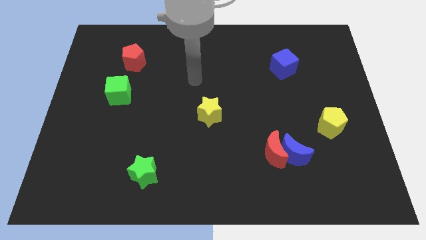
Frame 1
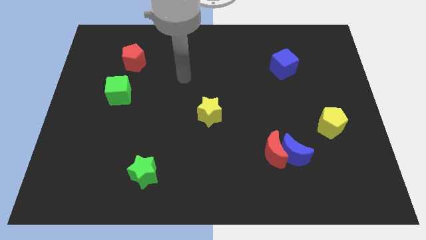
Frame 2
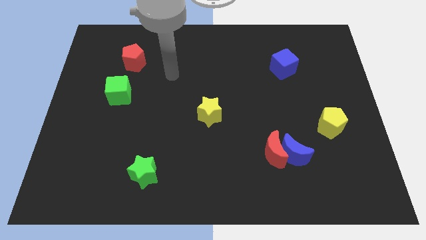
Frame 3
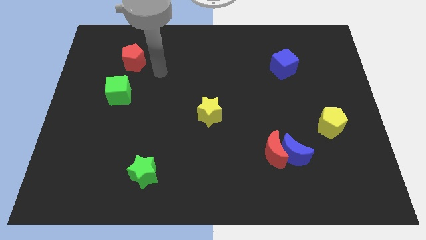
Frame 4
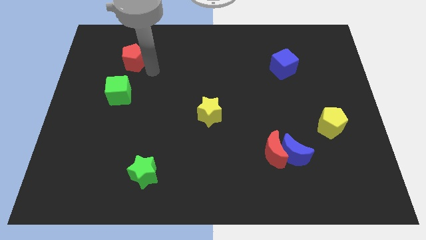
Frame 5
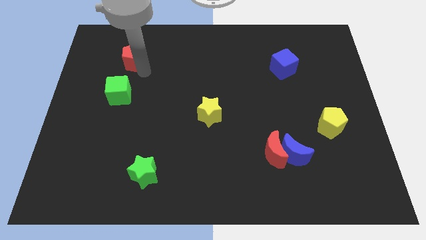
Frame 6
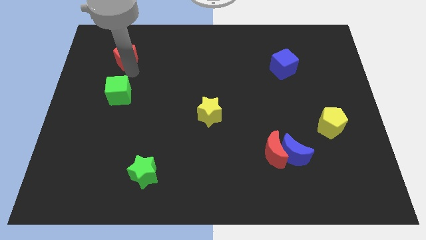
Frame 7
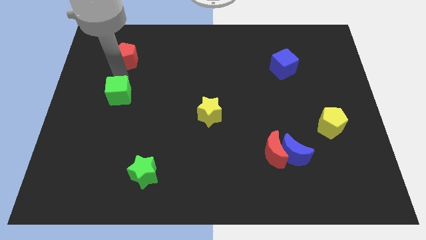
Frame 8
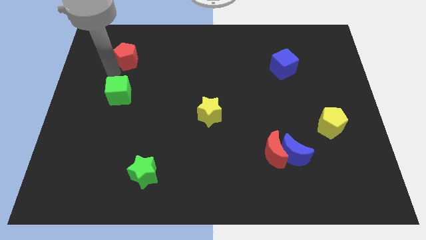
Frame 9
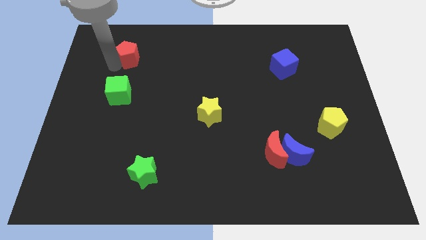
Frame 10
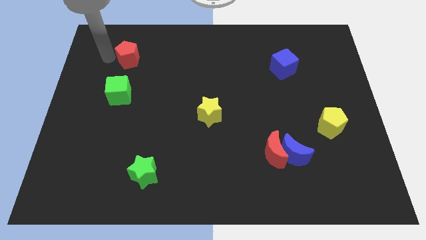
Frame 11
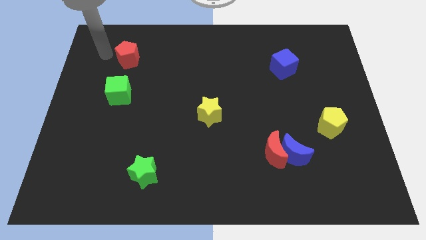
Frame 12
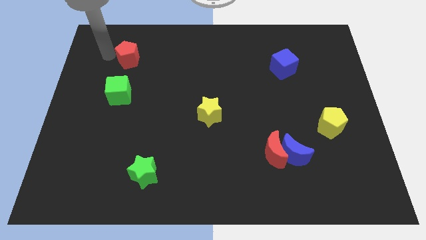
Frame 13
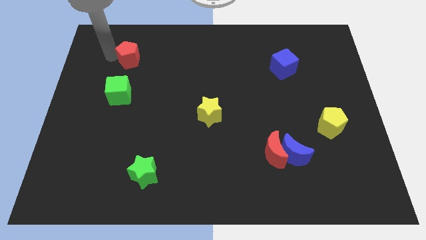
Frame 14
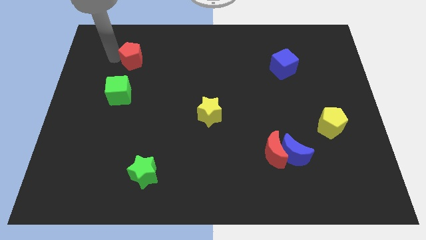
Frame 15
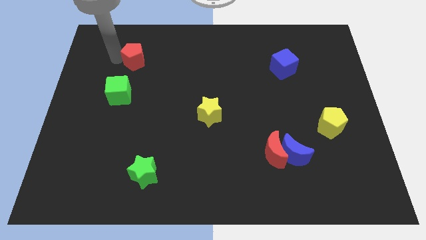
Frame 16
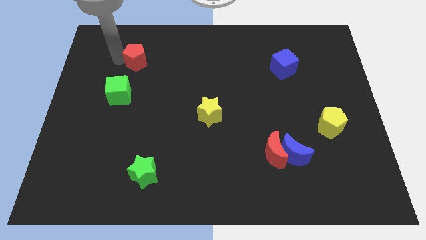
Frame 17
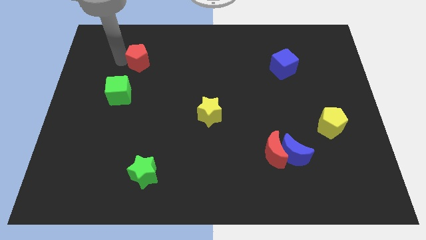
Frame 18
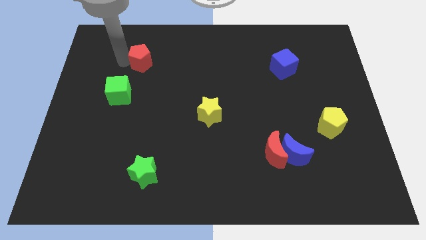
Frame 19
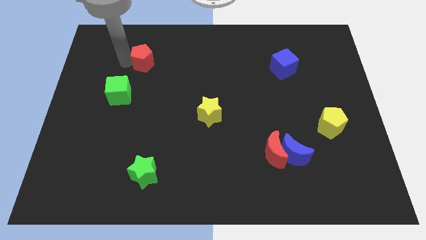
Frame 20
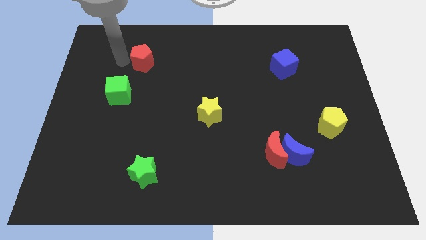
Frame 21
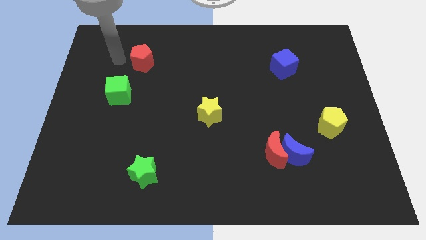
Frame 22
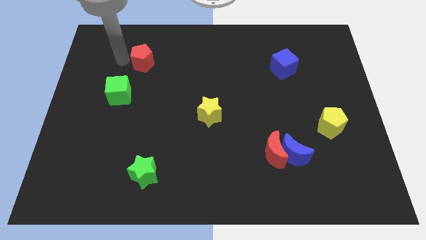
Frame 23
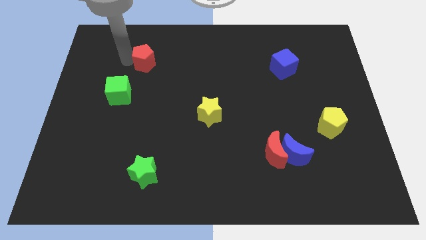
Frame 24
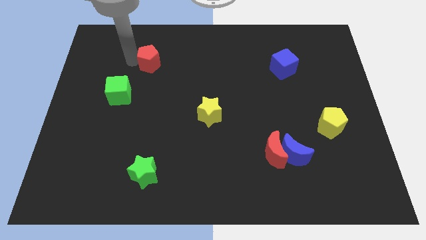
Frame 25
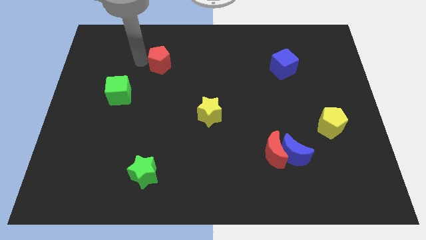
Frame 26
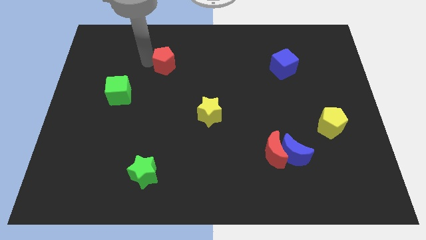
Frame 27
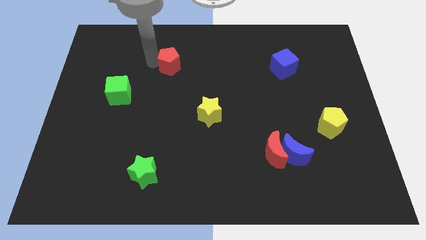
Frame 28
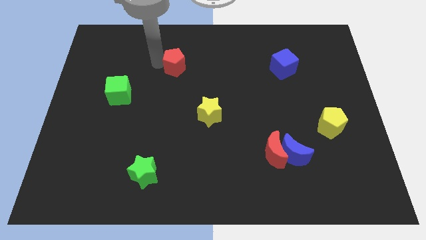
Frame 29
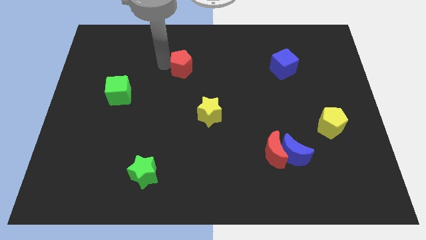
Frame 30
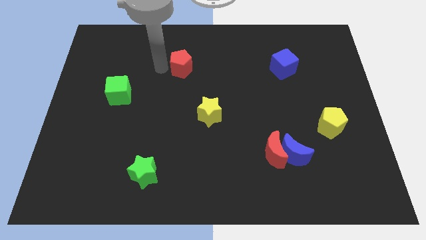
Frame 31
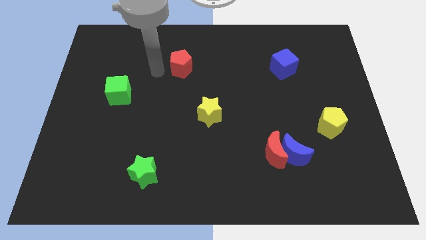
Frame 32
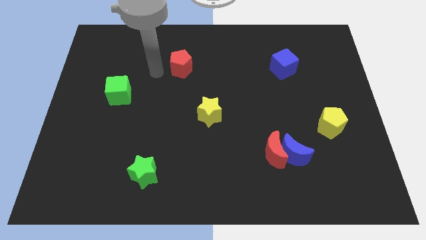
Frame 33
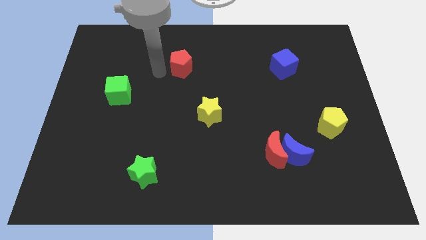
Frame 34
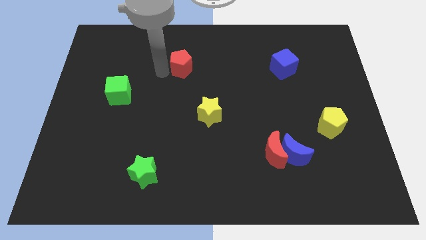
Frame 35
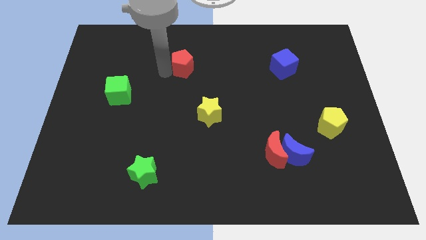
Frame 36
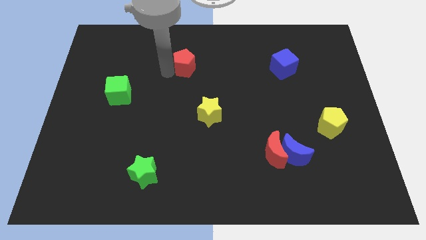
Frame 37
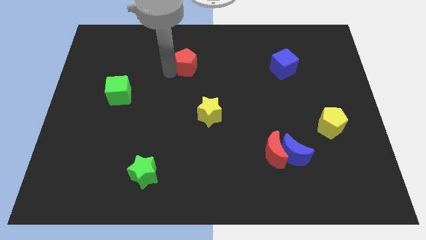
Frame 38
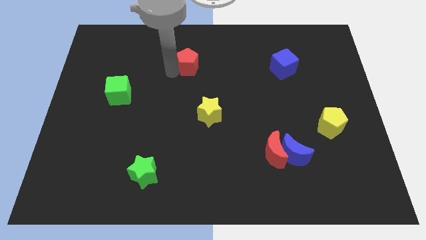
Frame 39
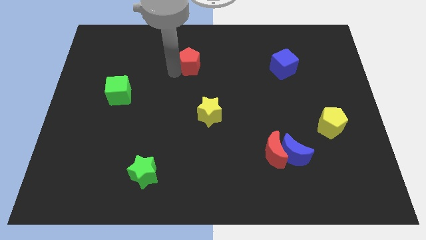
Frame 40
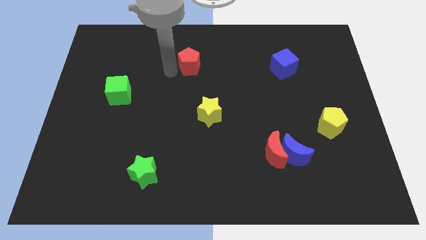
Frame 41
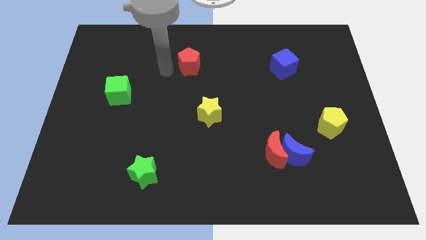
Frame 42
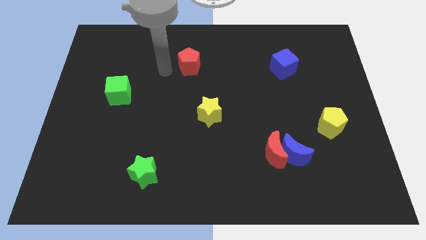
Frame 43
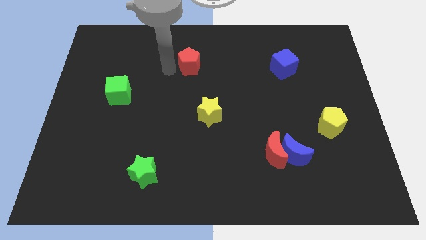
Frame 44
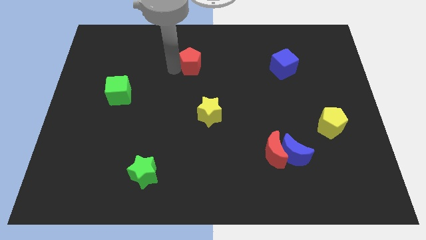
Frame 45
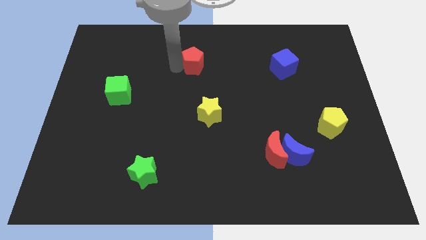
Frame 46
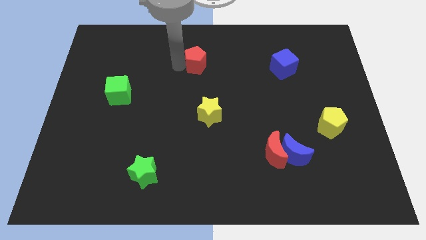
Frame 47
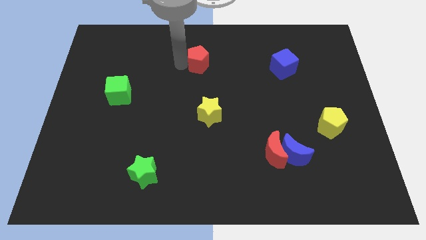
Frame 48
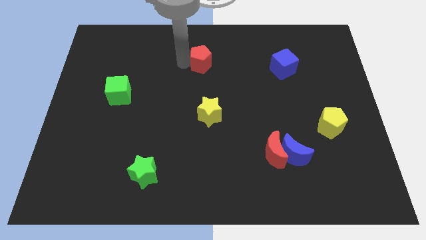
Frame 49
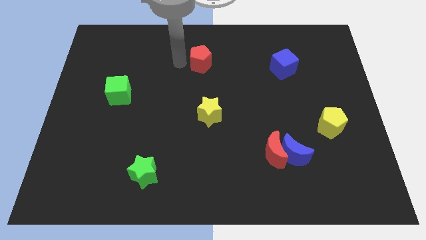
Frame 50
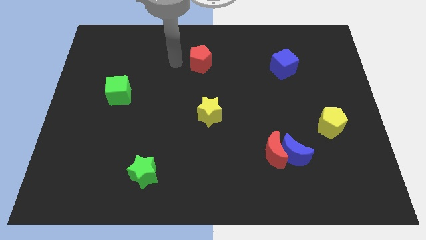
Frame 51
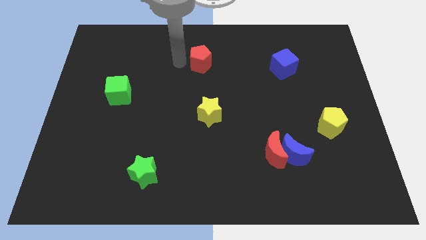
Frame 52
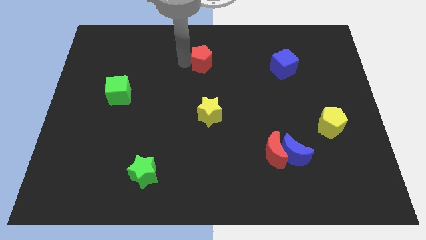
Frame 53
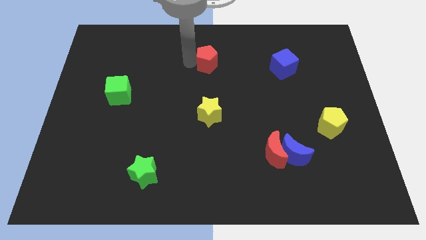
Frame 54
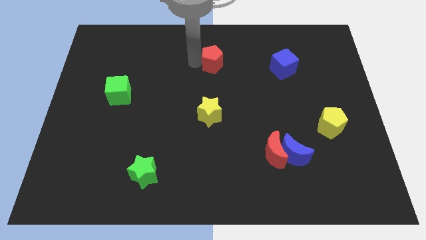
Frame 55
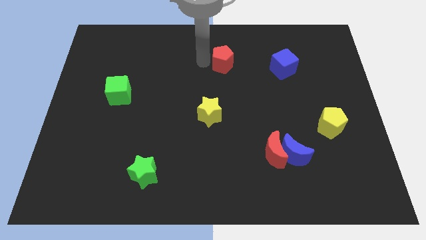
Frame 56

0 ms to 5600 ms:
move the red pentagon to the left side of the blue cube

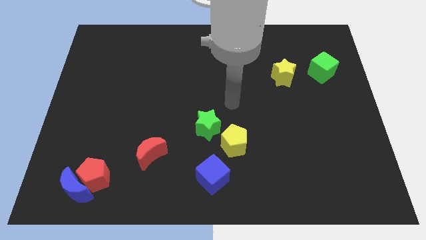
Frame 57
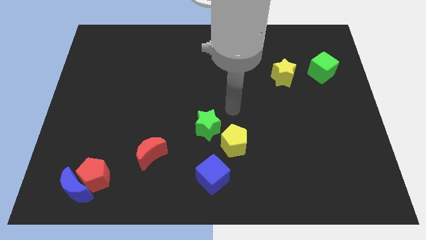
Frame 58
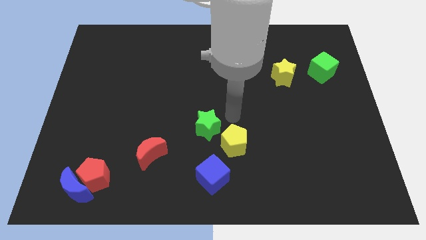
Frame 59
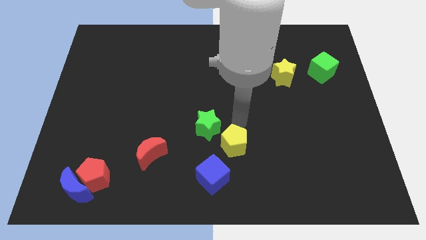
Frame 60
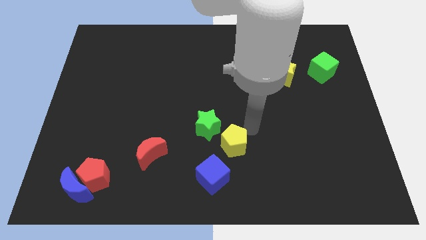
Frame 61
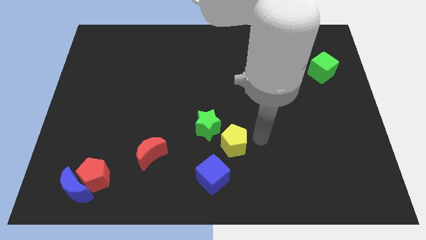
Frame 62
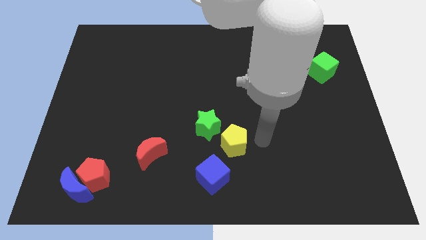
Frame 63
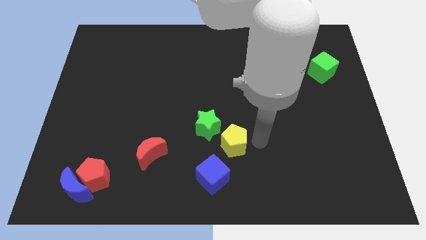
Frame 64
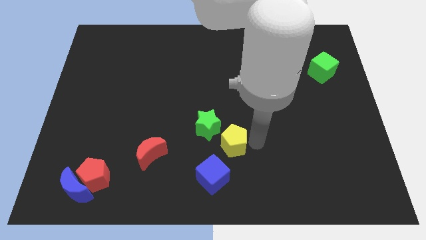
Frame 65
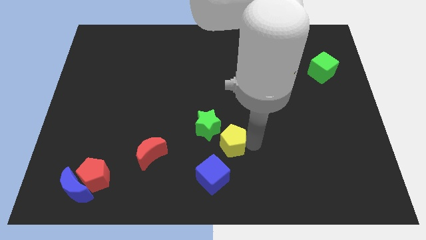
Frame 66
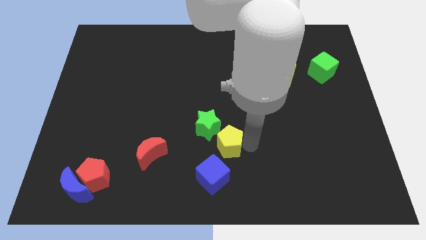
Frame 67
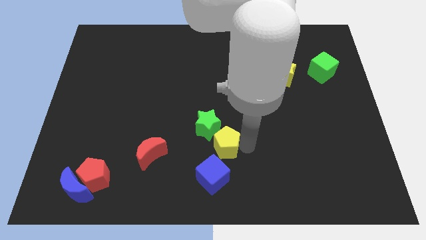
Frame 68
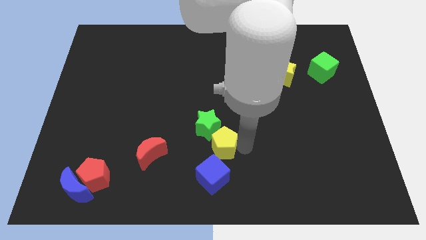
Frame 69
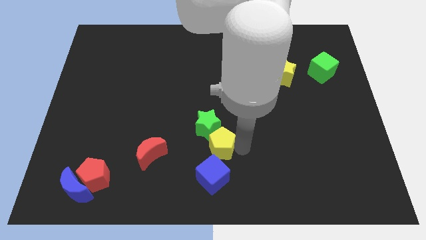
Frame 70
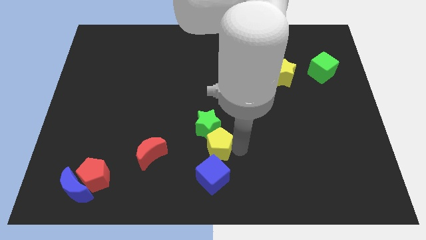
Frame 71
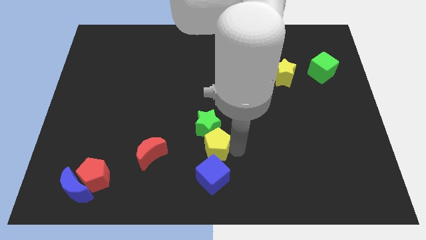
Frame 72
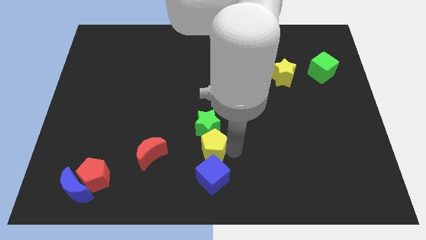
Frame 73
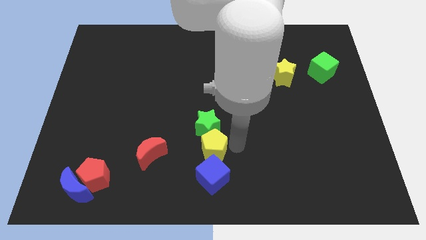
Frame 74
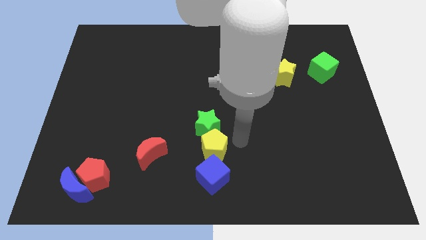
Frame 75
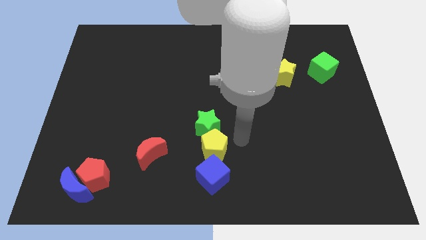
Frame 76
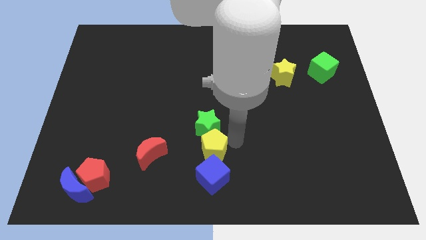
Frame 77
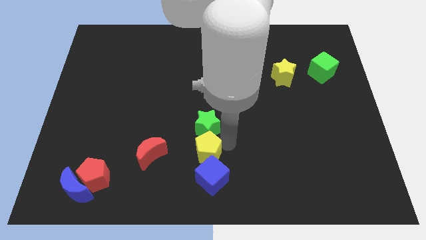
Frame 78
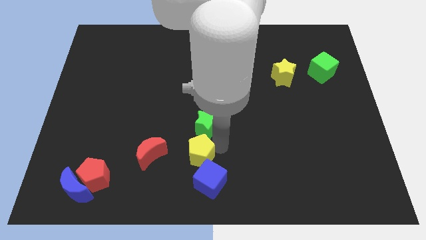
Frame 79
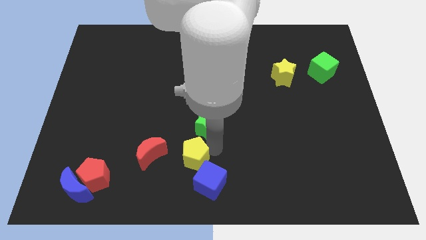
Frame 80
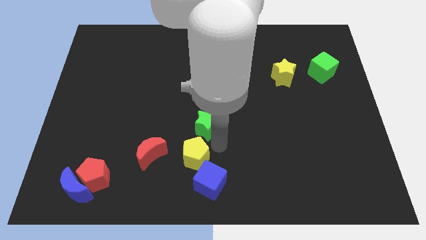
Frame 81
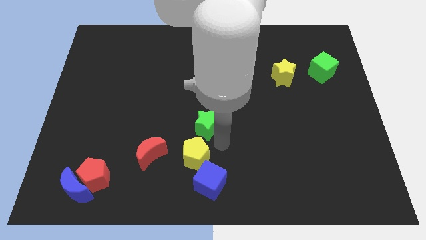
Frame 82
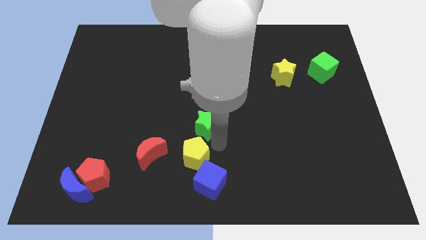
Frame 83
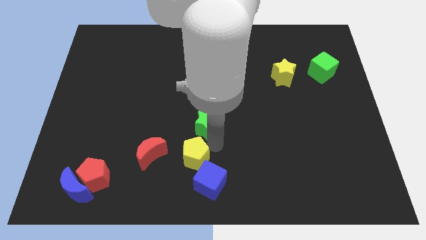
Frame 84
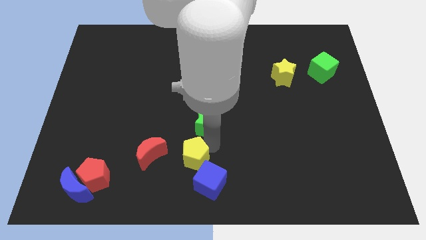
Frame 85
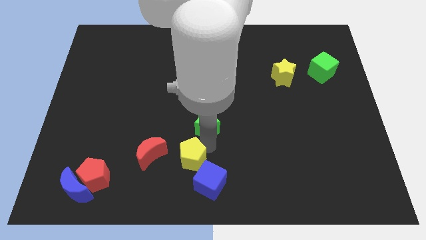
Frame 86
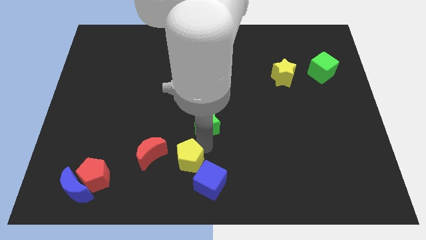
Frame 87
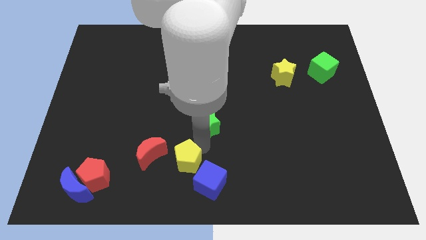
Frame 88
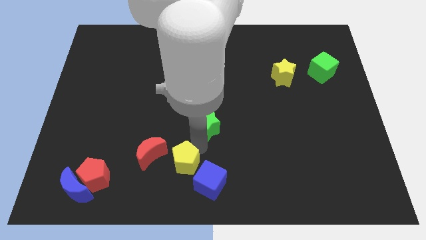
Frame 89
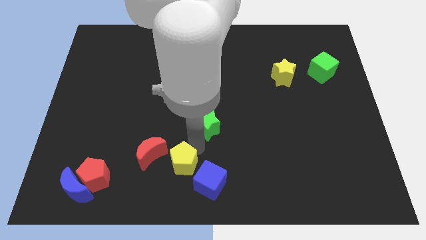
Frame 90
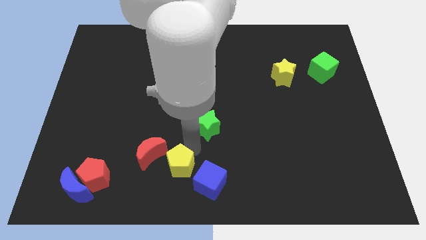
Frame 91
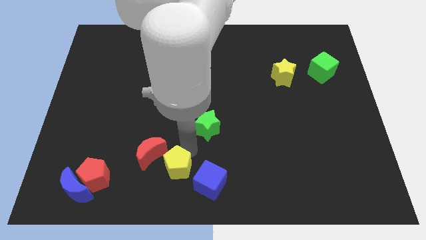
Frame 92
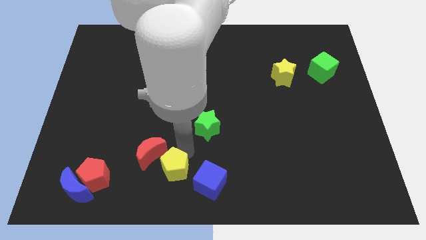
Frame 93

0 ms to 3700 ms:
move the yellow pentagon just right of the red pentagon
